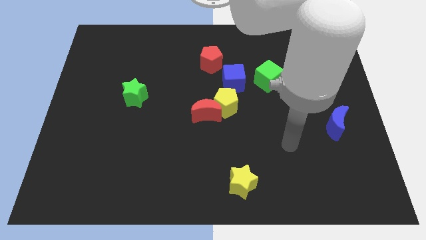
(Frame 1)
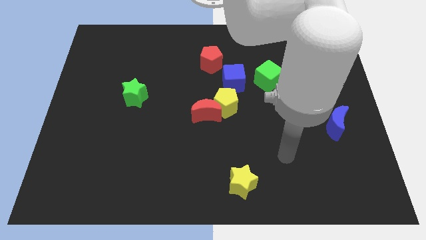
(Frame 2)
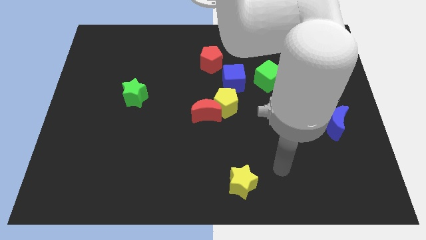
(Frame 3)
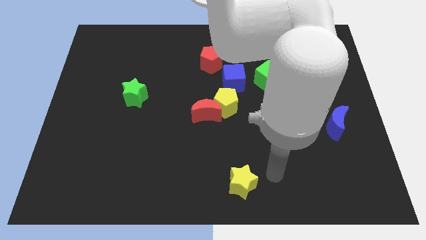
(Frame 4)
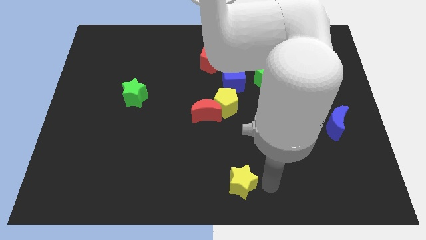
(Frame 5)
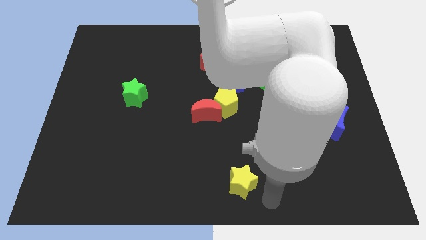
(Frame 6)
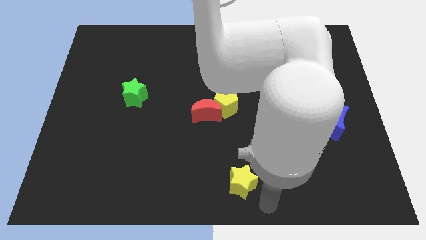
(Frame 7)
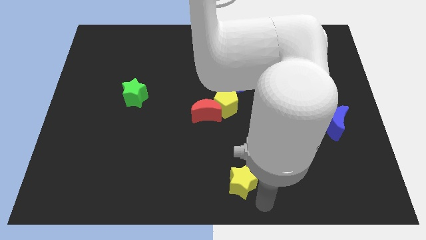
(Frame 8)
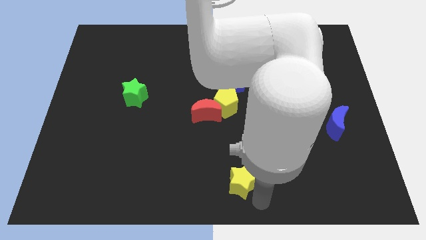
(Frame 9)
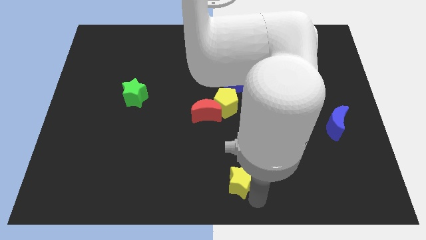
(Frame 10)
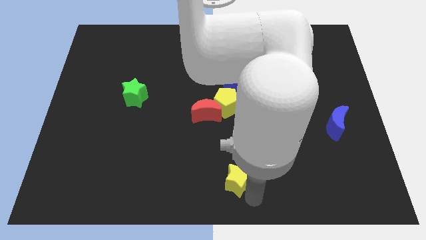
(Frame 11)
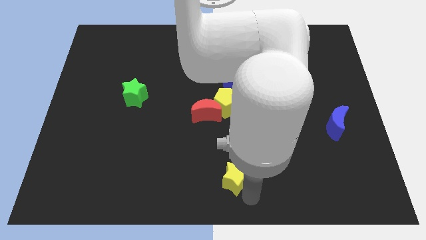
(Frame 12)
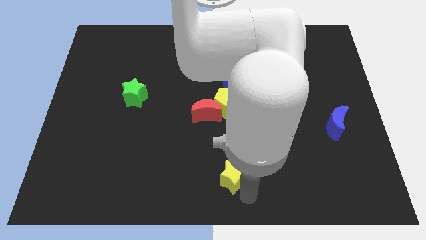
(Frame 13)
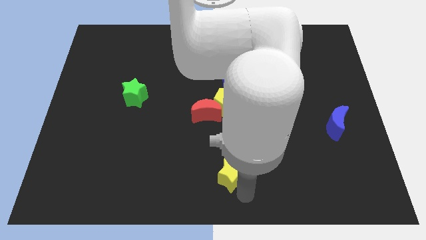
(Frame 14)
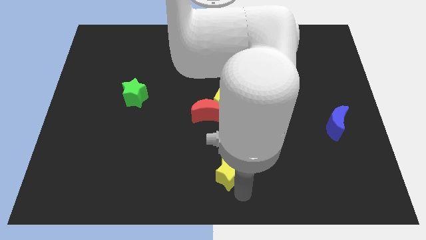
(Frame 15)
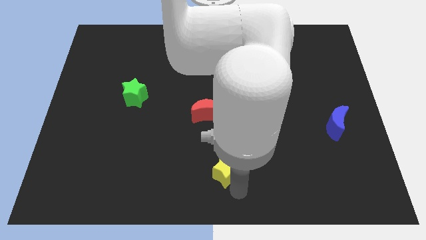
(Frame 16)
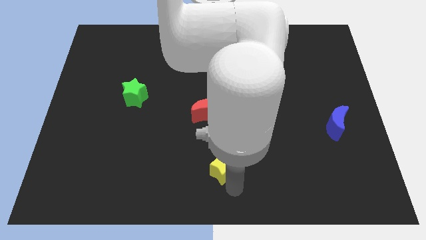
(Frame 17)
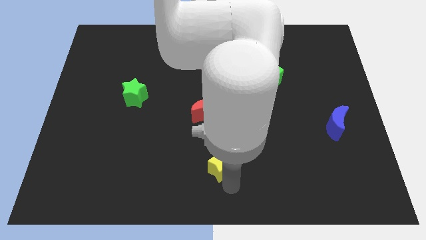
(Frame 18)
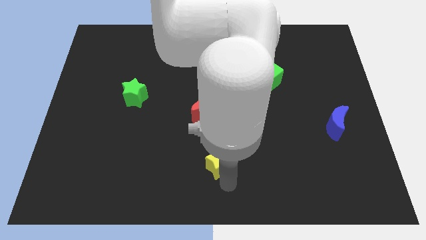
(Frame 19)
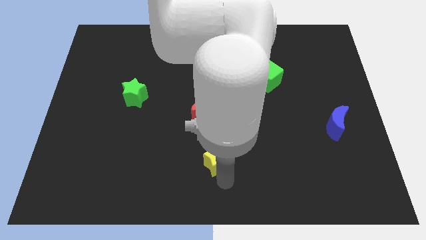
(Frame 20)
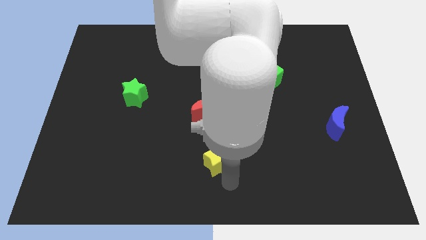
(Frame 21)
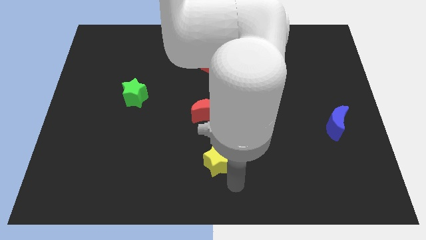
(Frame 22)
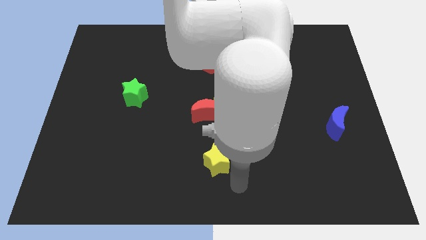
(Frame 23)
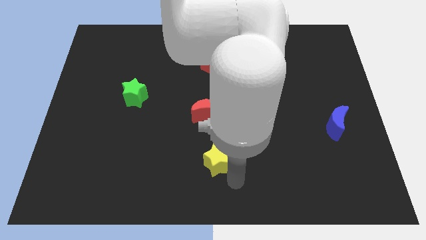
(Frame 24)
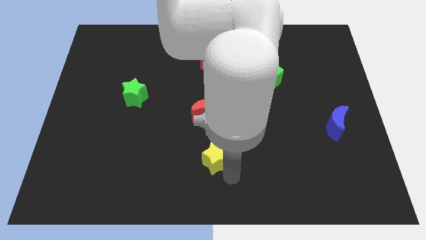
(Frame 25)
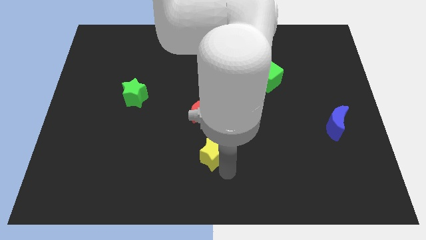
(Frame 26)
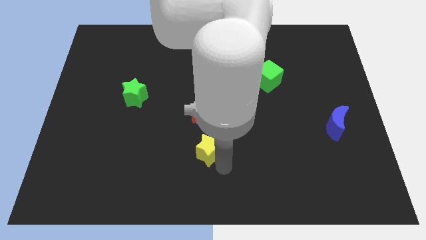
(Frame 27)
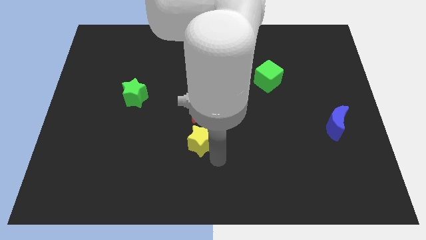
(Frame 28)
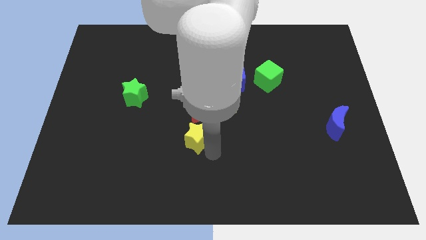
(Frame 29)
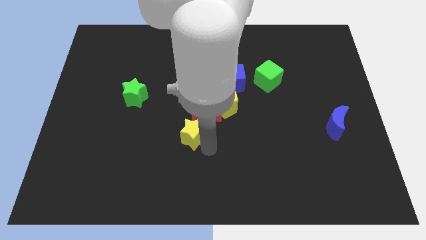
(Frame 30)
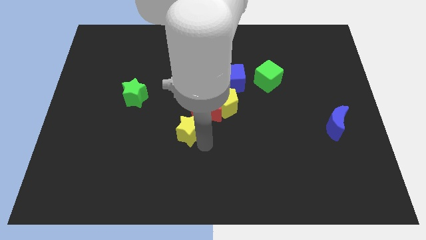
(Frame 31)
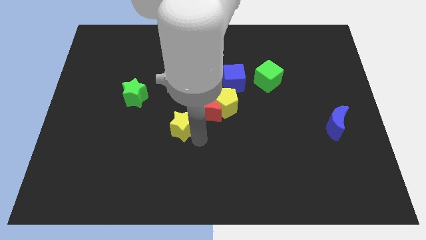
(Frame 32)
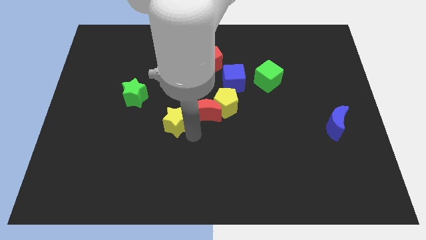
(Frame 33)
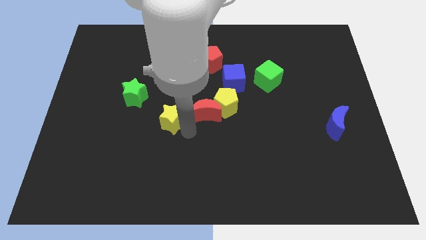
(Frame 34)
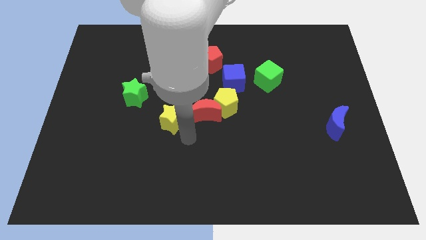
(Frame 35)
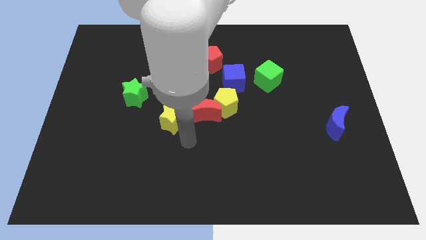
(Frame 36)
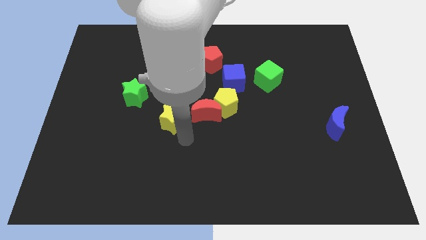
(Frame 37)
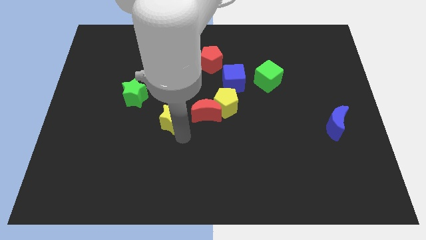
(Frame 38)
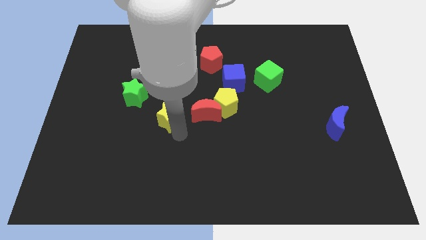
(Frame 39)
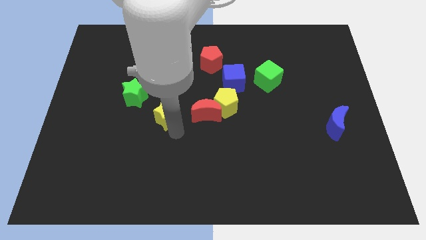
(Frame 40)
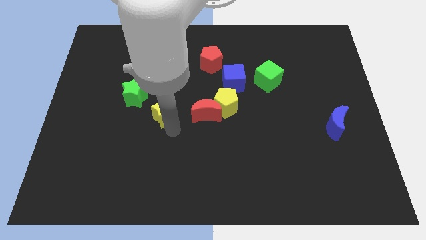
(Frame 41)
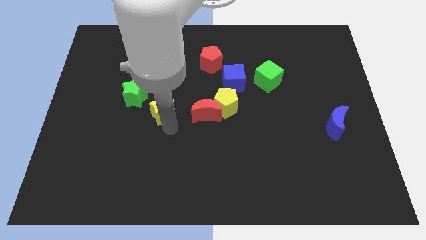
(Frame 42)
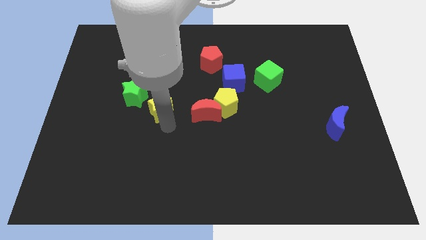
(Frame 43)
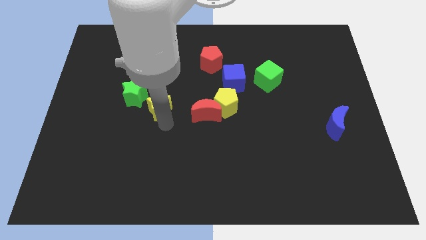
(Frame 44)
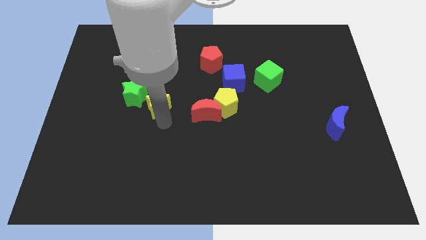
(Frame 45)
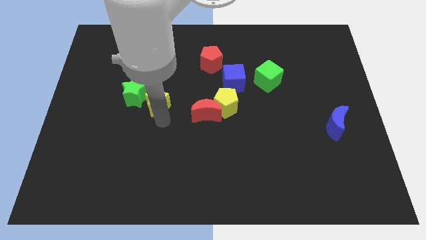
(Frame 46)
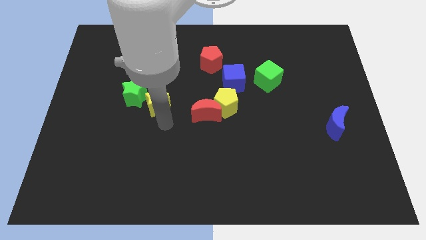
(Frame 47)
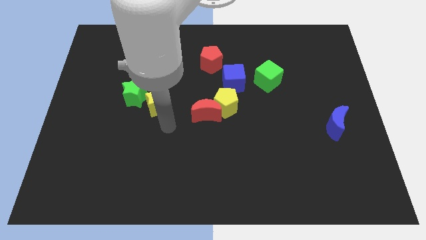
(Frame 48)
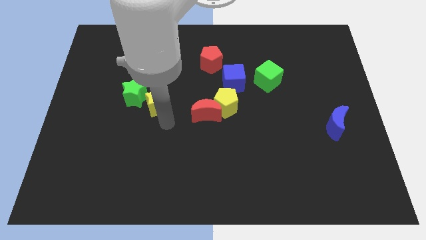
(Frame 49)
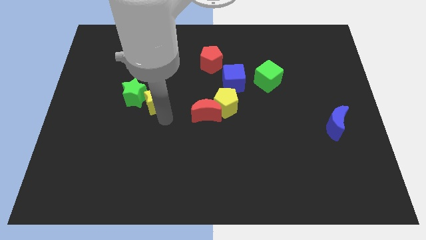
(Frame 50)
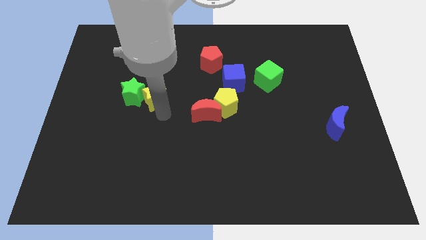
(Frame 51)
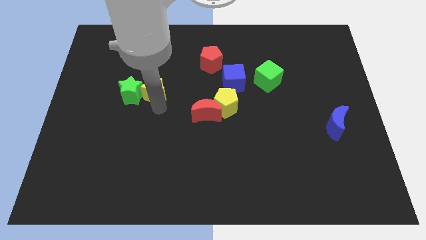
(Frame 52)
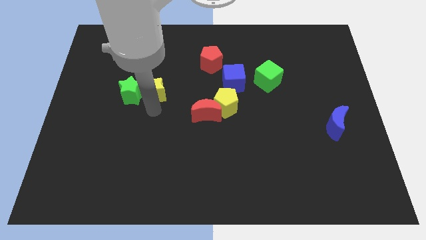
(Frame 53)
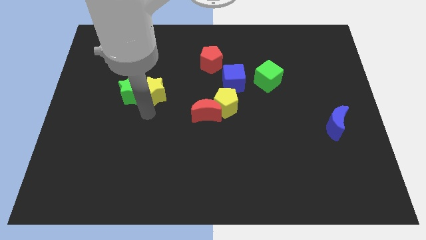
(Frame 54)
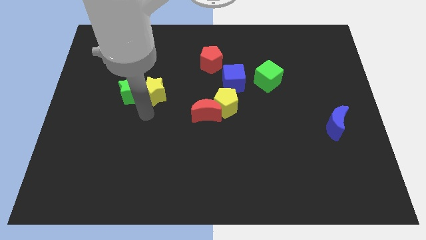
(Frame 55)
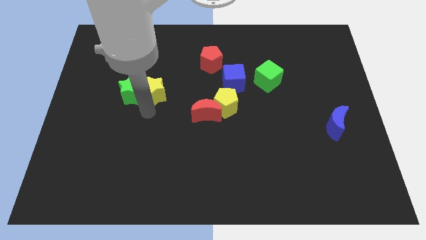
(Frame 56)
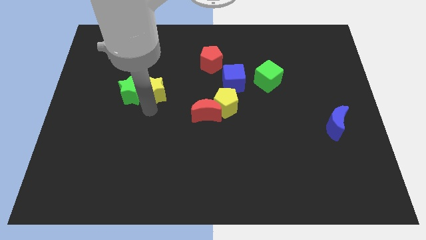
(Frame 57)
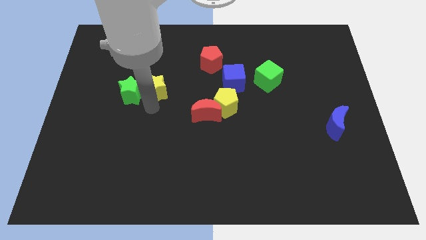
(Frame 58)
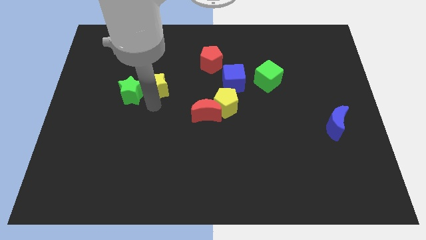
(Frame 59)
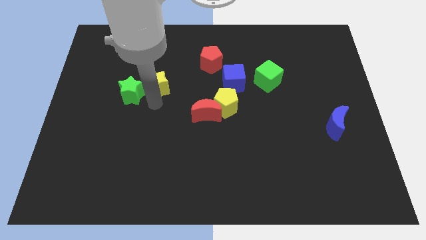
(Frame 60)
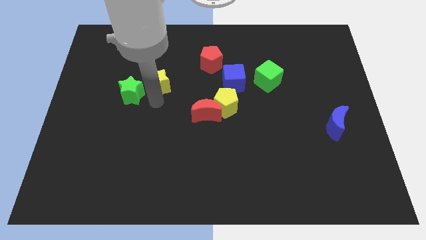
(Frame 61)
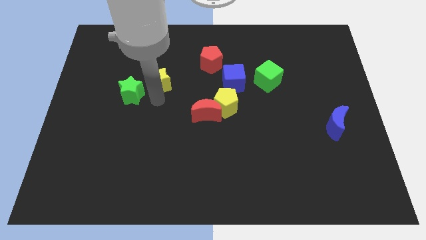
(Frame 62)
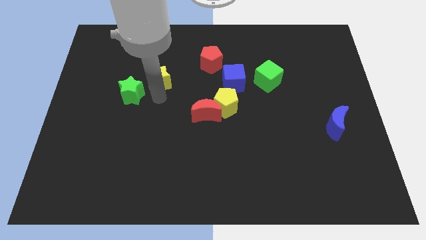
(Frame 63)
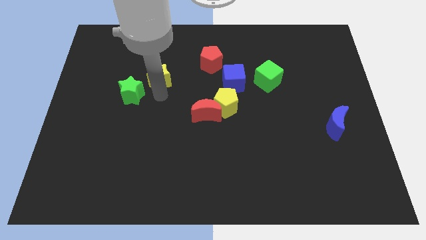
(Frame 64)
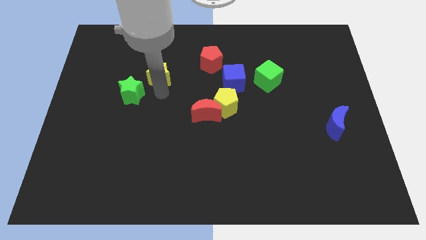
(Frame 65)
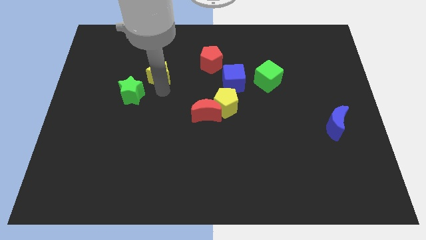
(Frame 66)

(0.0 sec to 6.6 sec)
move the yellow star just left of the red pentagon

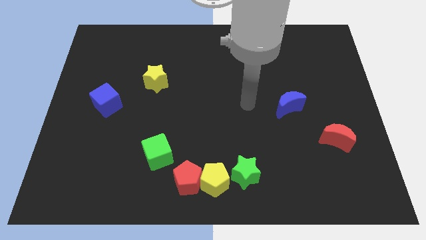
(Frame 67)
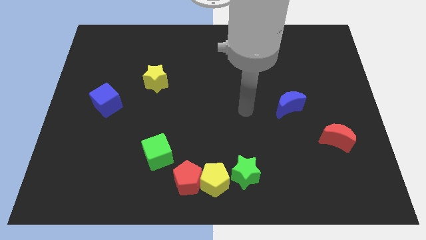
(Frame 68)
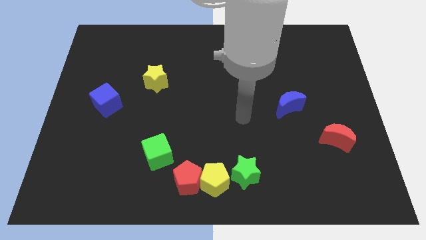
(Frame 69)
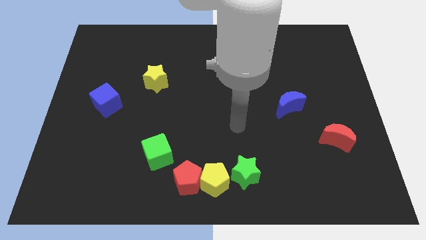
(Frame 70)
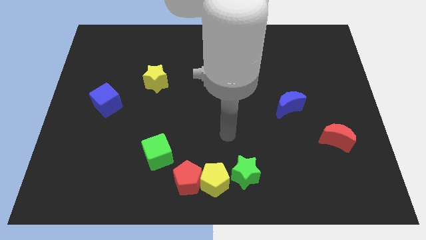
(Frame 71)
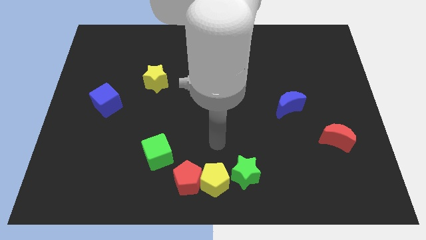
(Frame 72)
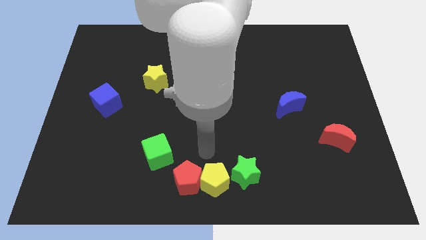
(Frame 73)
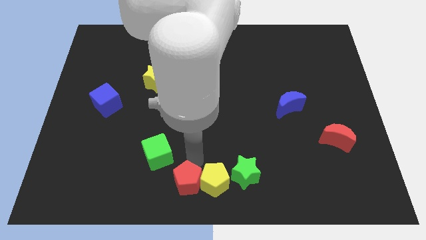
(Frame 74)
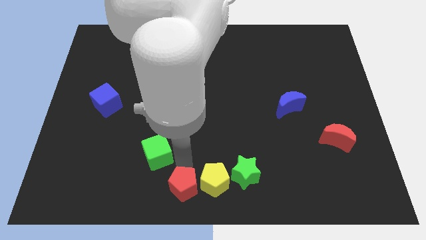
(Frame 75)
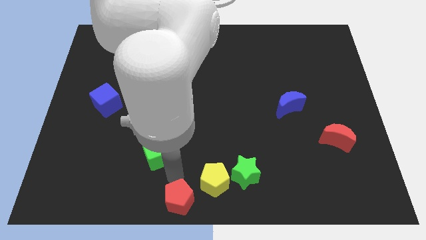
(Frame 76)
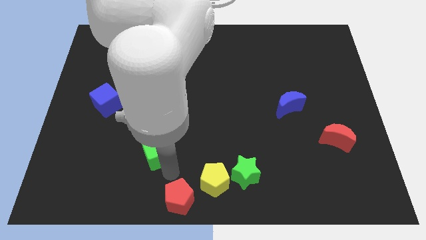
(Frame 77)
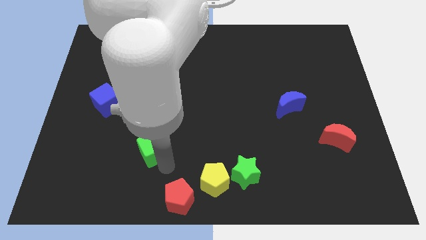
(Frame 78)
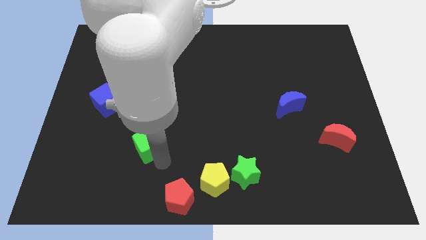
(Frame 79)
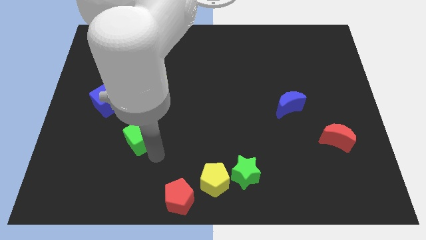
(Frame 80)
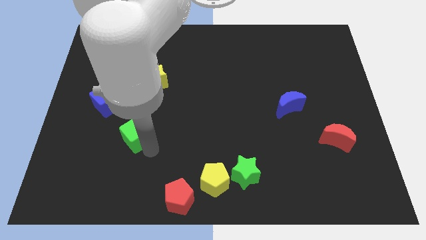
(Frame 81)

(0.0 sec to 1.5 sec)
put the green cube to the bottom right of the blue cube
